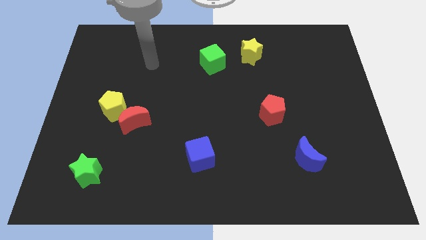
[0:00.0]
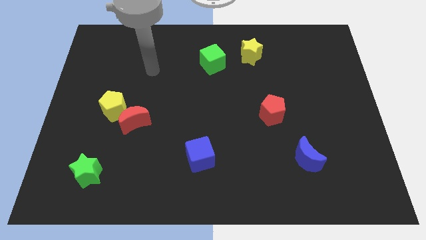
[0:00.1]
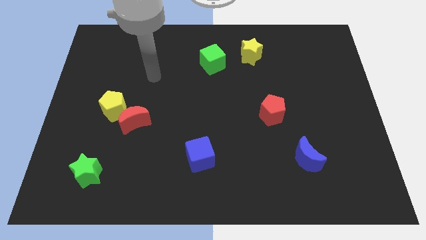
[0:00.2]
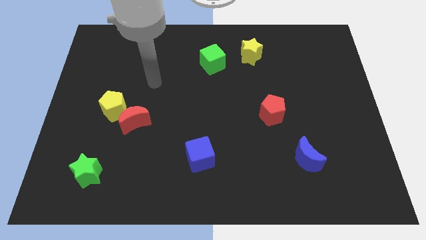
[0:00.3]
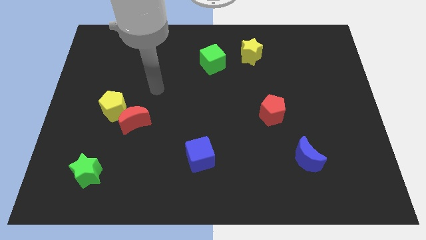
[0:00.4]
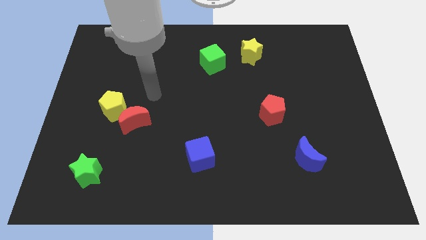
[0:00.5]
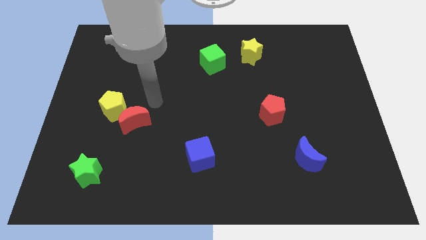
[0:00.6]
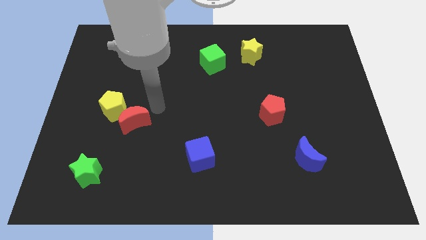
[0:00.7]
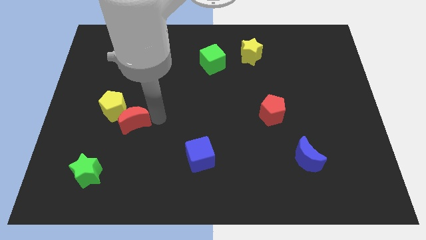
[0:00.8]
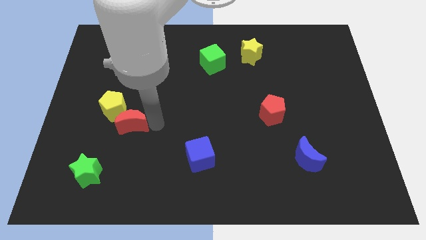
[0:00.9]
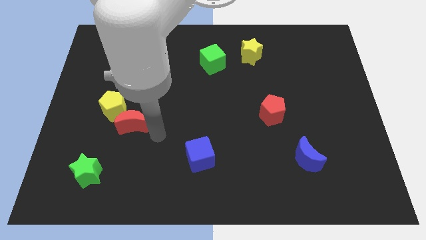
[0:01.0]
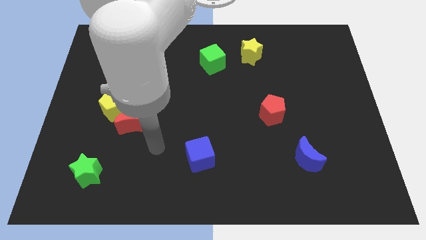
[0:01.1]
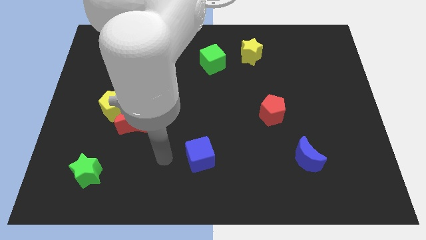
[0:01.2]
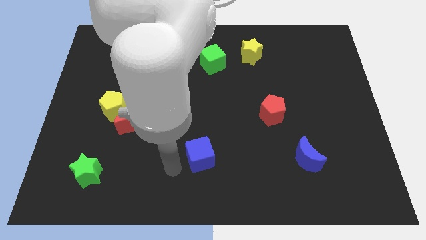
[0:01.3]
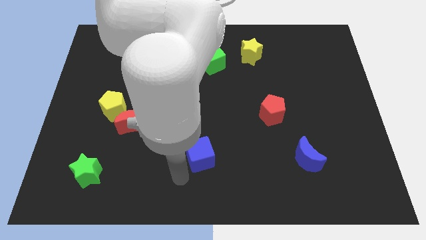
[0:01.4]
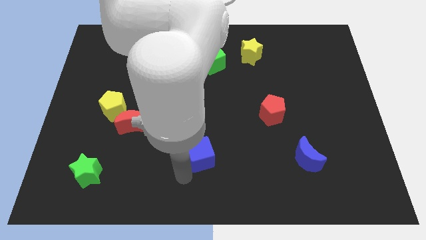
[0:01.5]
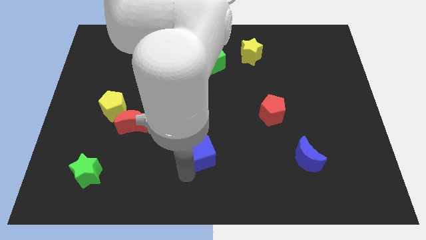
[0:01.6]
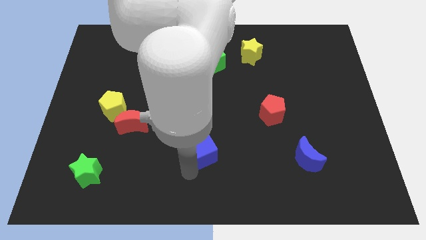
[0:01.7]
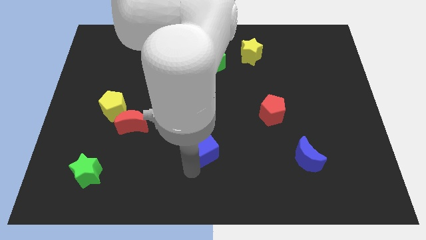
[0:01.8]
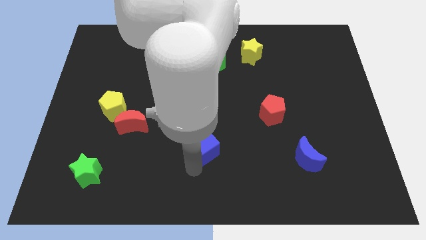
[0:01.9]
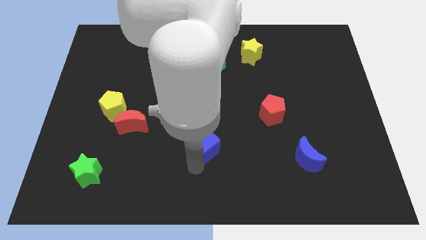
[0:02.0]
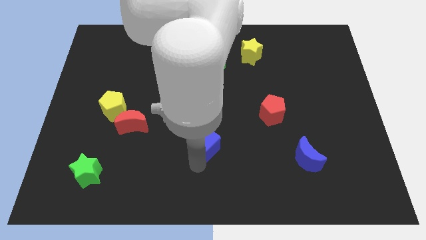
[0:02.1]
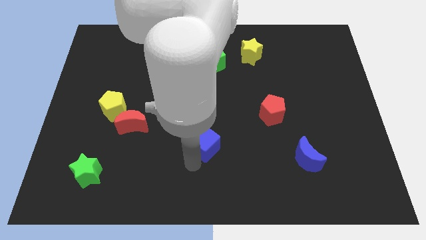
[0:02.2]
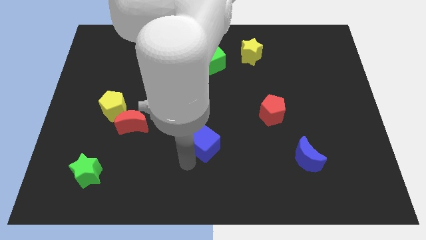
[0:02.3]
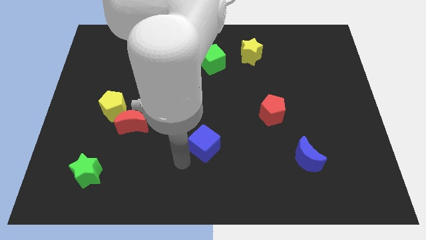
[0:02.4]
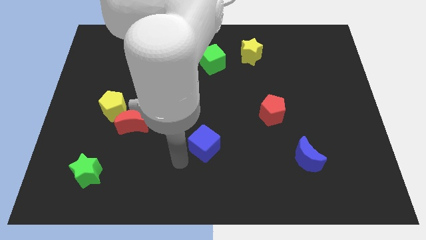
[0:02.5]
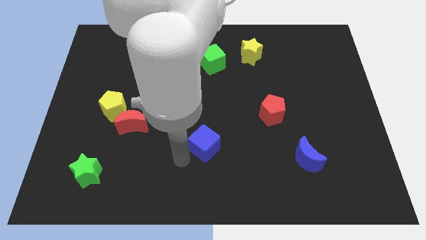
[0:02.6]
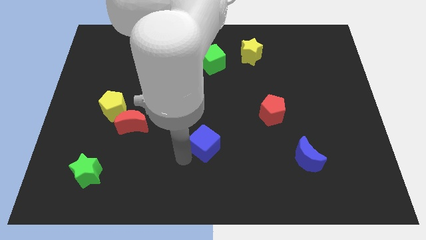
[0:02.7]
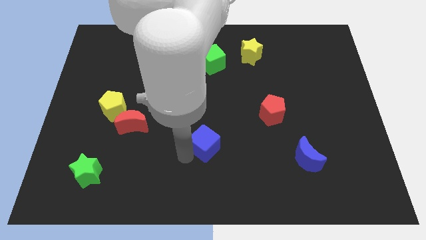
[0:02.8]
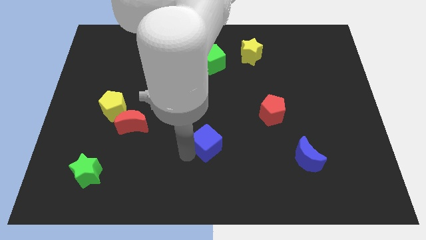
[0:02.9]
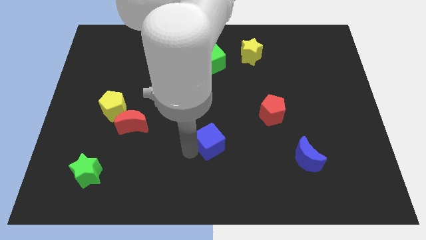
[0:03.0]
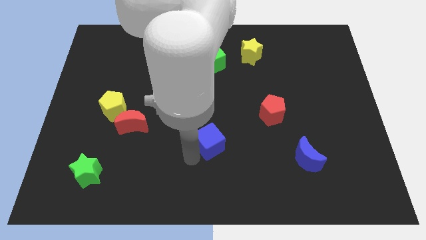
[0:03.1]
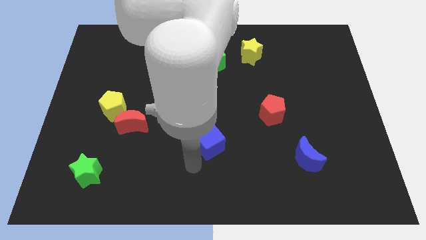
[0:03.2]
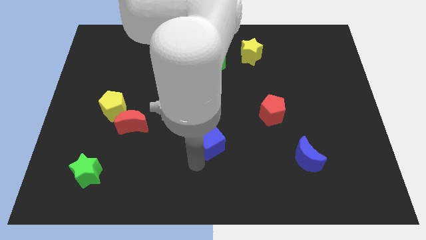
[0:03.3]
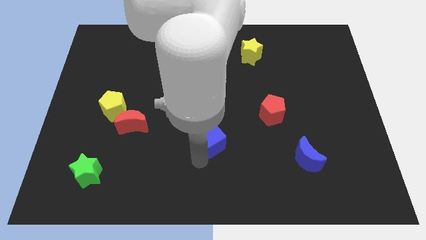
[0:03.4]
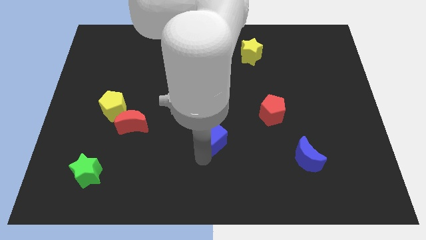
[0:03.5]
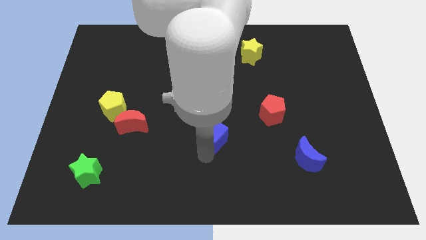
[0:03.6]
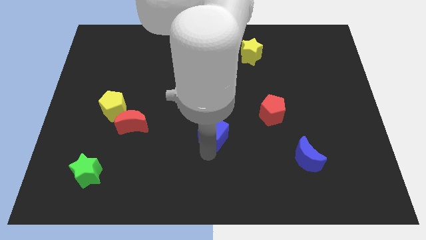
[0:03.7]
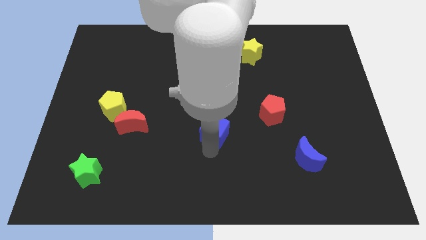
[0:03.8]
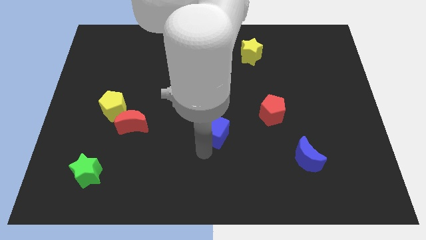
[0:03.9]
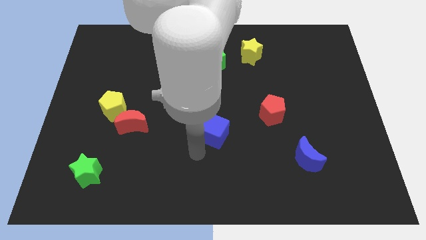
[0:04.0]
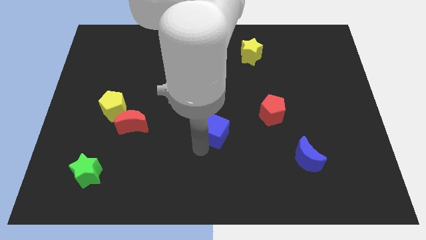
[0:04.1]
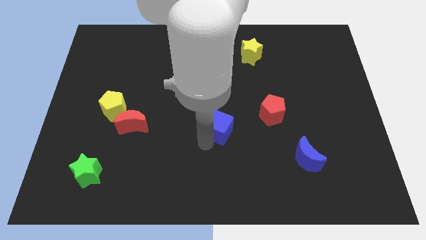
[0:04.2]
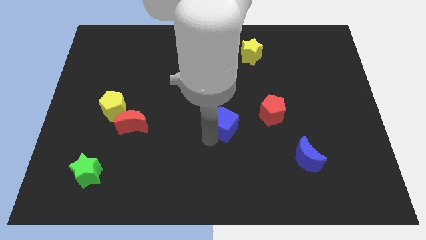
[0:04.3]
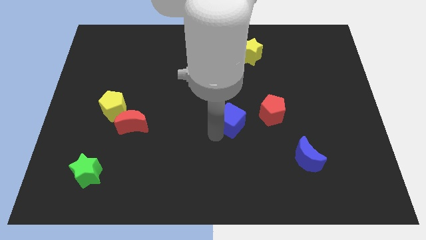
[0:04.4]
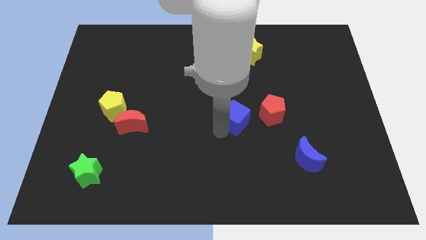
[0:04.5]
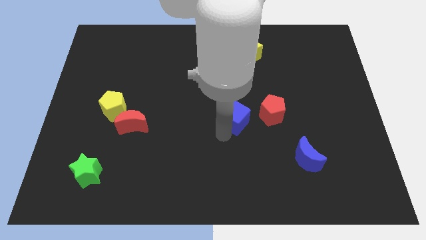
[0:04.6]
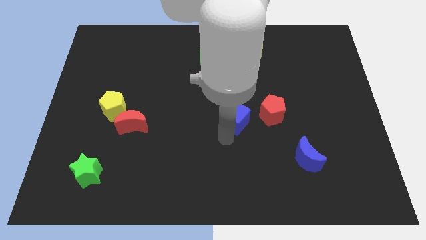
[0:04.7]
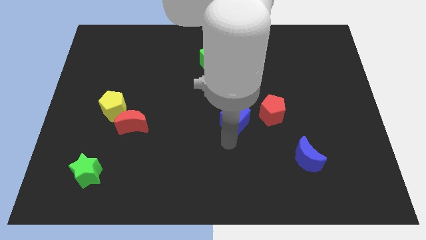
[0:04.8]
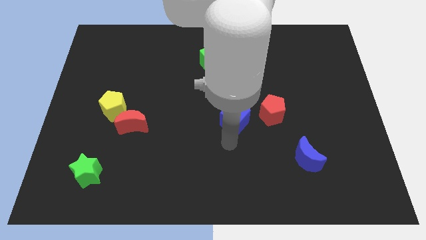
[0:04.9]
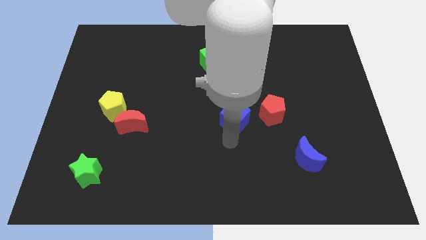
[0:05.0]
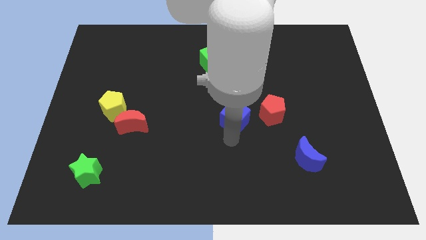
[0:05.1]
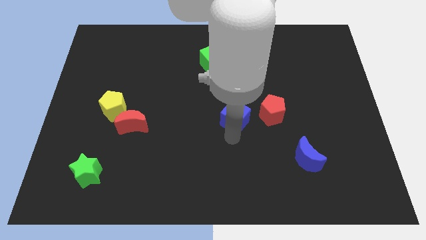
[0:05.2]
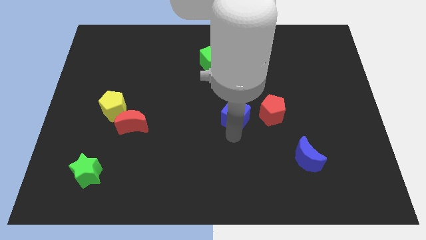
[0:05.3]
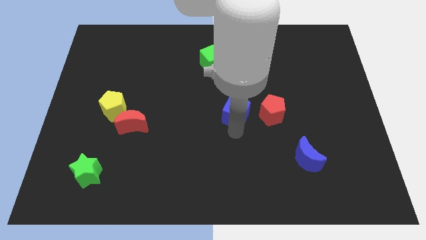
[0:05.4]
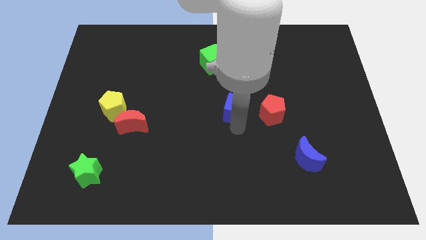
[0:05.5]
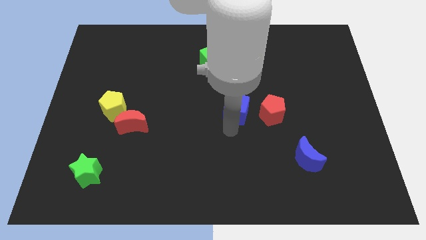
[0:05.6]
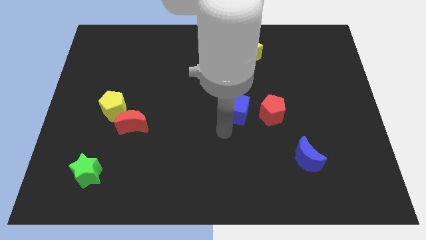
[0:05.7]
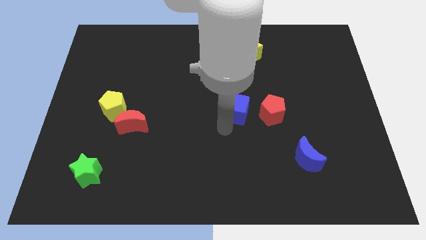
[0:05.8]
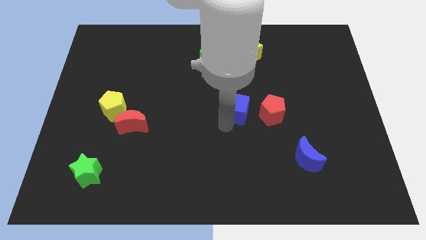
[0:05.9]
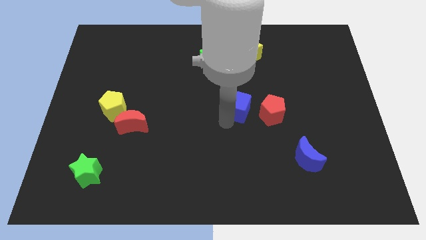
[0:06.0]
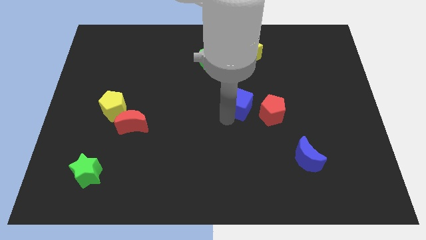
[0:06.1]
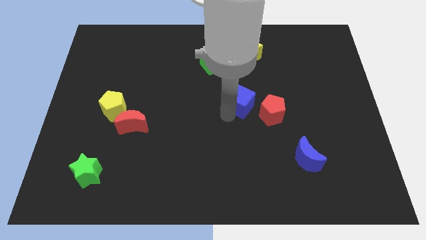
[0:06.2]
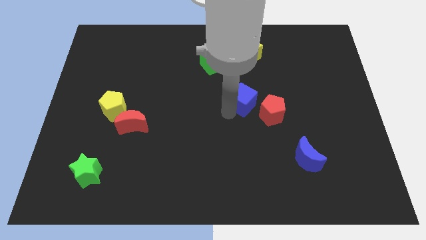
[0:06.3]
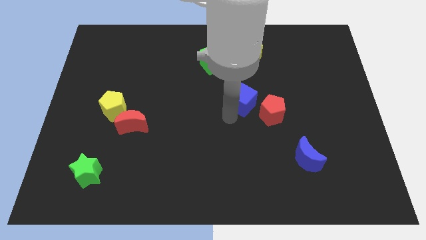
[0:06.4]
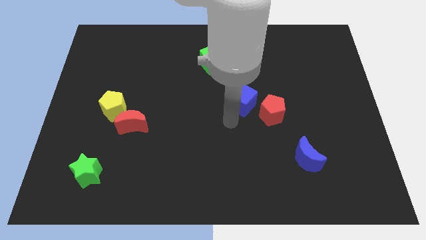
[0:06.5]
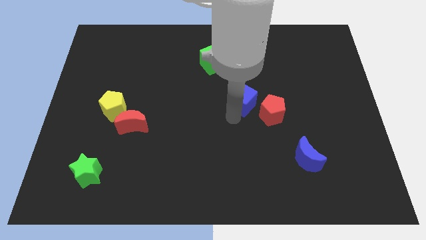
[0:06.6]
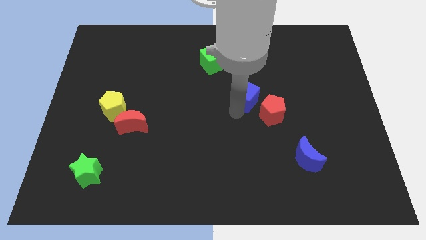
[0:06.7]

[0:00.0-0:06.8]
push the blue cube to the bottom side of the yellow star
